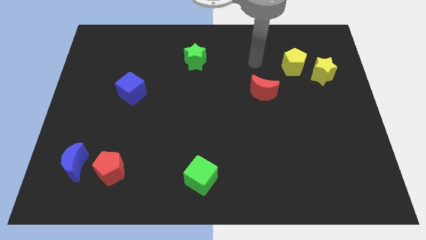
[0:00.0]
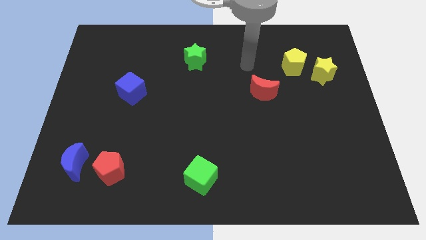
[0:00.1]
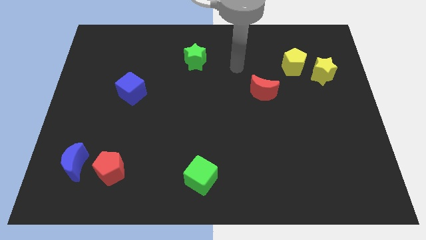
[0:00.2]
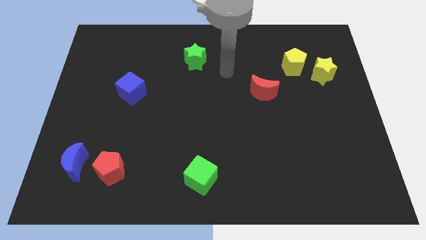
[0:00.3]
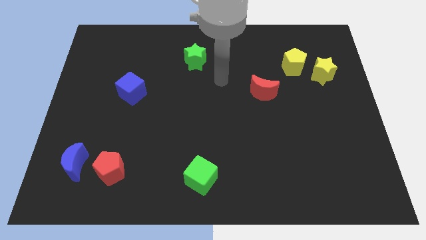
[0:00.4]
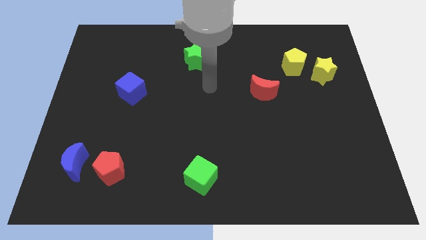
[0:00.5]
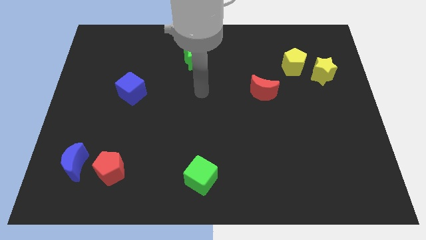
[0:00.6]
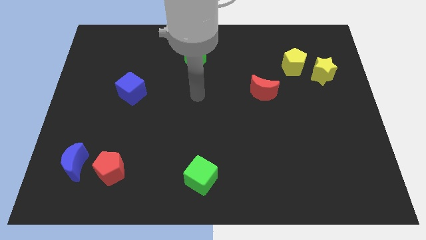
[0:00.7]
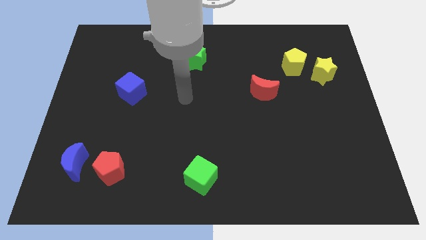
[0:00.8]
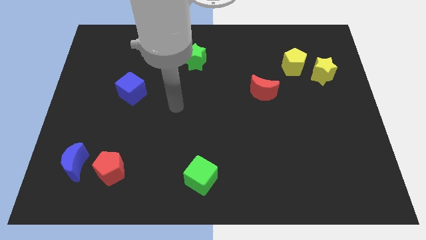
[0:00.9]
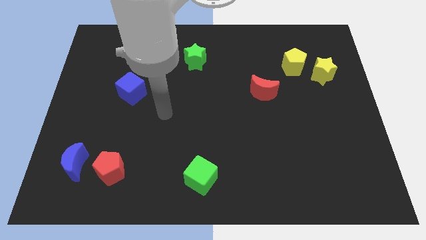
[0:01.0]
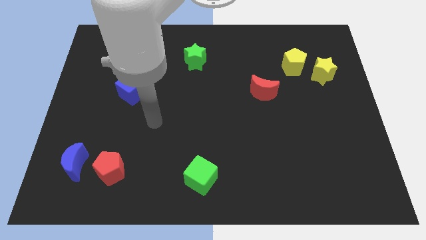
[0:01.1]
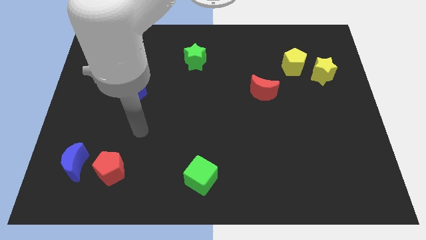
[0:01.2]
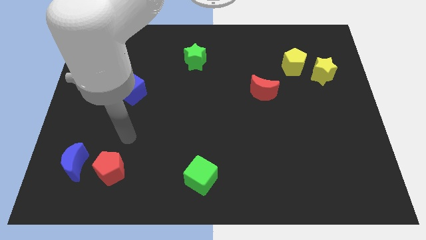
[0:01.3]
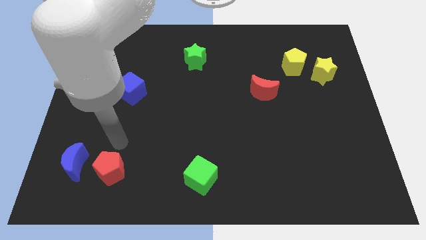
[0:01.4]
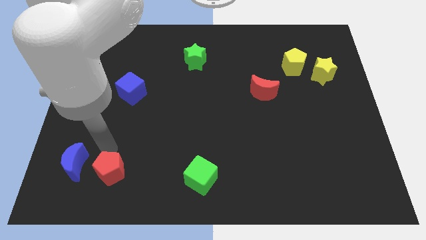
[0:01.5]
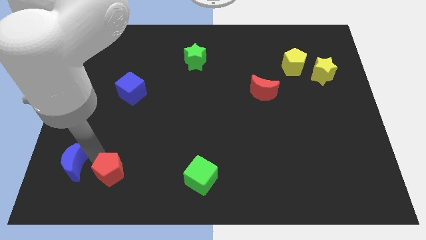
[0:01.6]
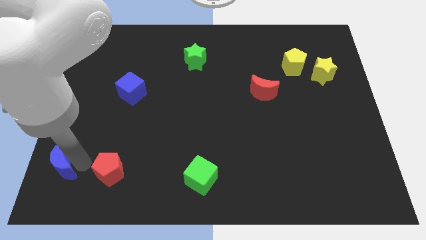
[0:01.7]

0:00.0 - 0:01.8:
separate the red pentagon from the blue moon

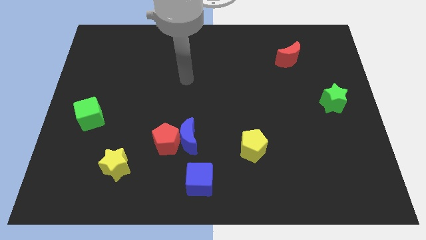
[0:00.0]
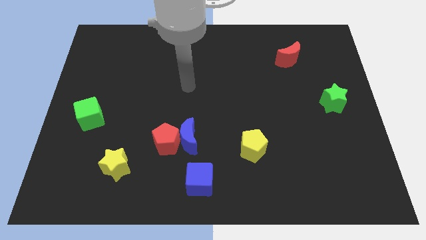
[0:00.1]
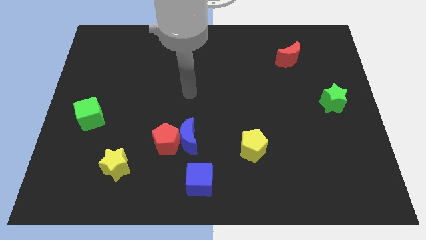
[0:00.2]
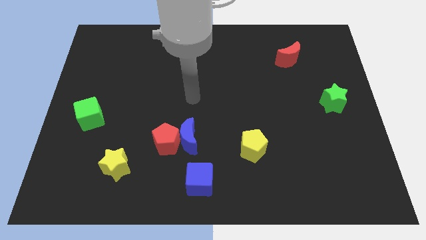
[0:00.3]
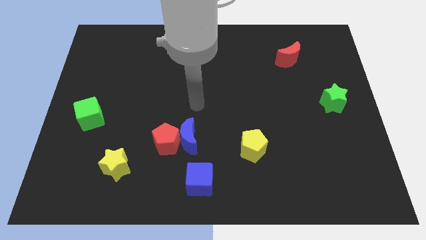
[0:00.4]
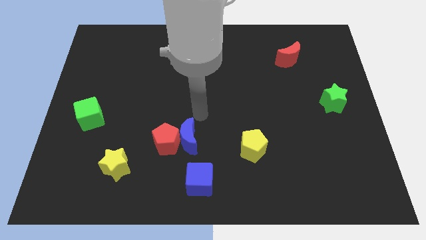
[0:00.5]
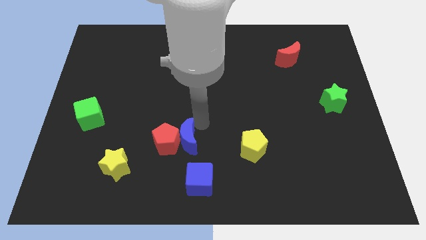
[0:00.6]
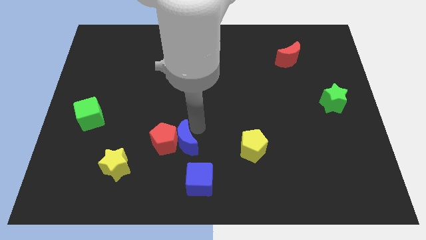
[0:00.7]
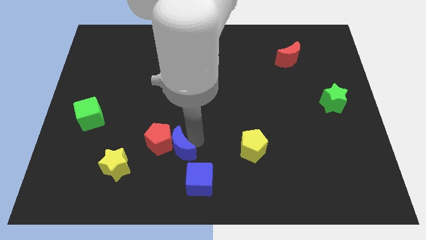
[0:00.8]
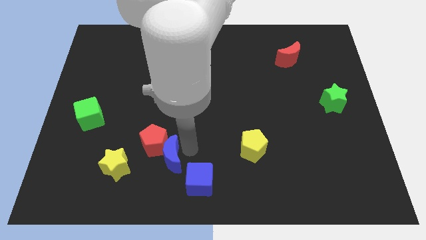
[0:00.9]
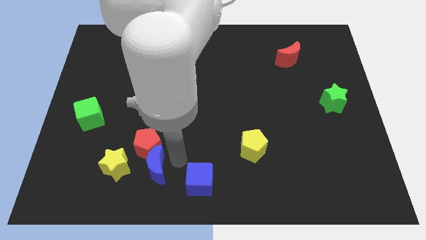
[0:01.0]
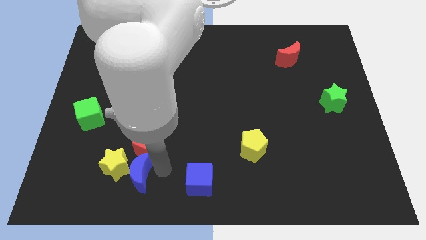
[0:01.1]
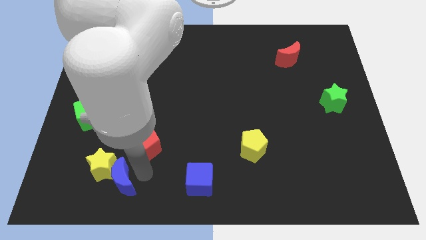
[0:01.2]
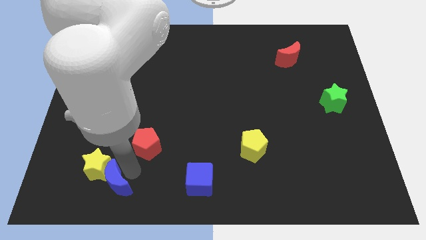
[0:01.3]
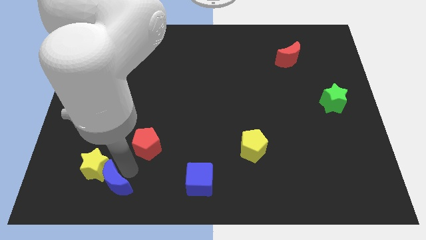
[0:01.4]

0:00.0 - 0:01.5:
pull the red pentagon apart from the blue moon

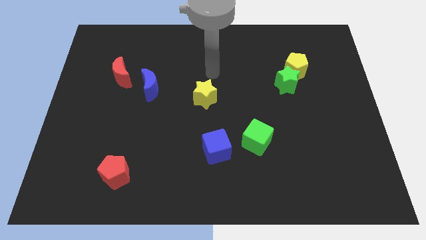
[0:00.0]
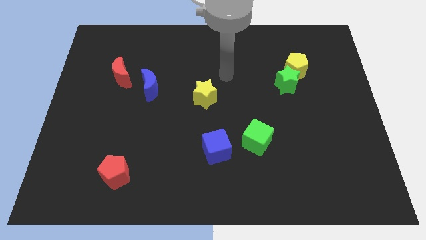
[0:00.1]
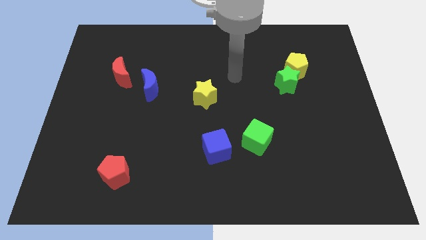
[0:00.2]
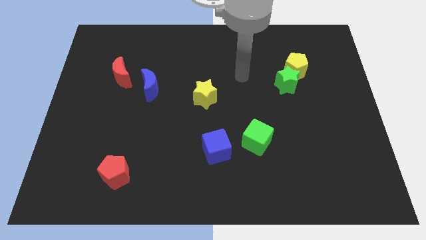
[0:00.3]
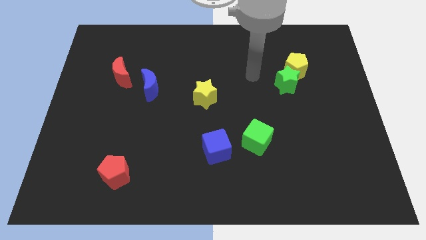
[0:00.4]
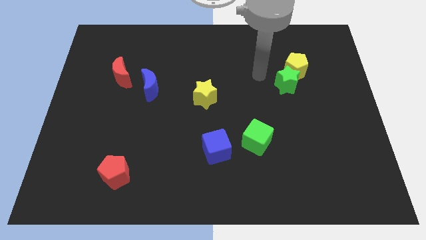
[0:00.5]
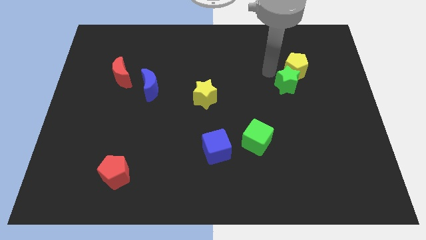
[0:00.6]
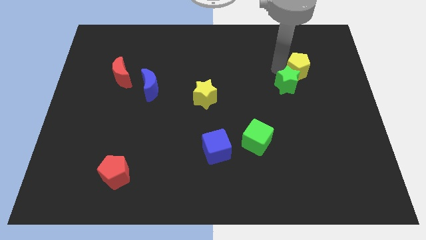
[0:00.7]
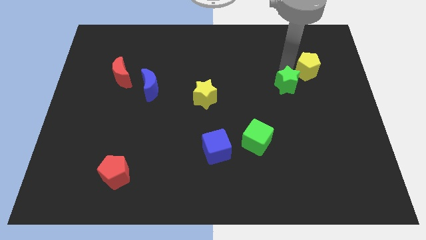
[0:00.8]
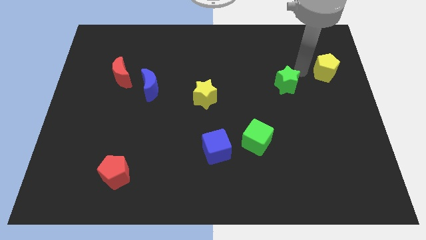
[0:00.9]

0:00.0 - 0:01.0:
move the green star away from the yellow pentagon

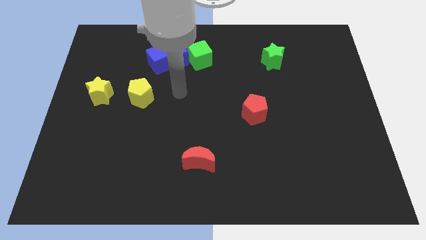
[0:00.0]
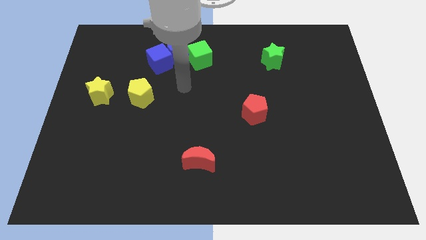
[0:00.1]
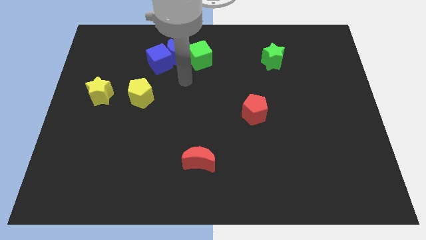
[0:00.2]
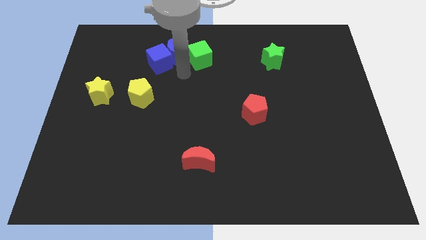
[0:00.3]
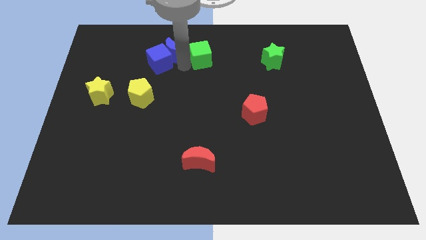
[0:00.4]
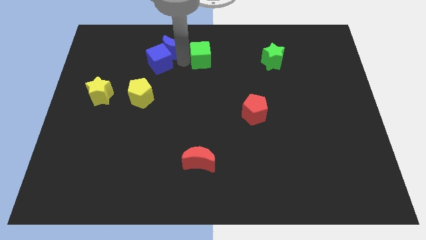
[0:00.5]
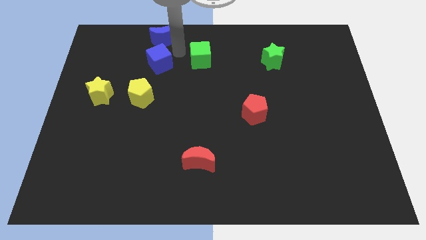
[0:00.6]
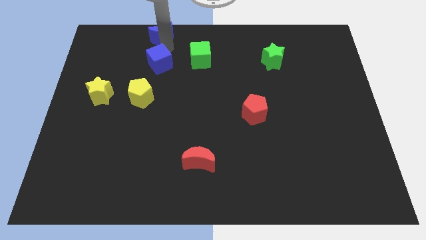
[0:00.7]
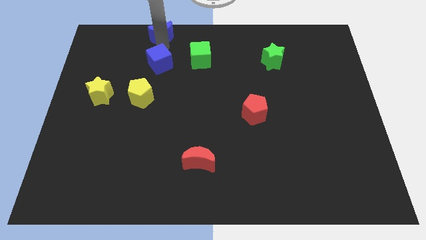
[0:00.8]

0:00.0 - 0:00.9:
separate the blue cube from the blue moon

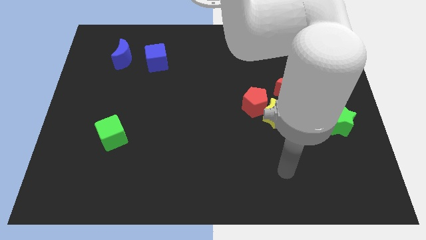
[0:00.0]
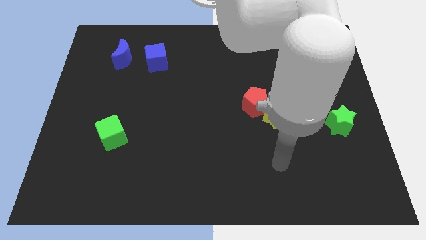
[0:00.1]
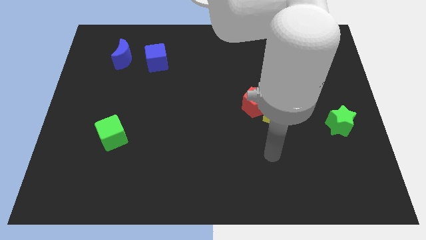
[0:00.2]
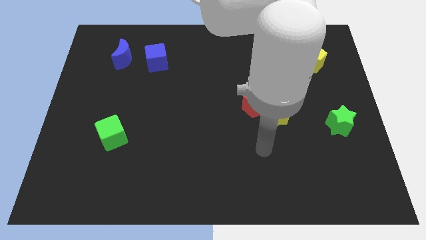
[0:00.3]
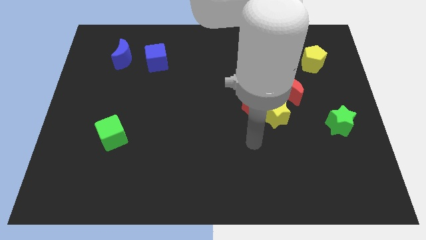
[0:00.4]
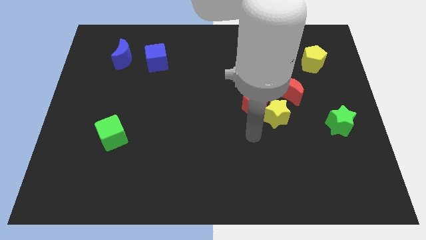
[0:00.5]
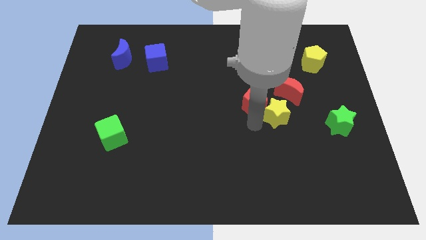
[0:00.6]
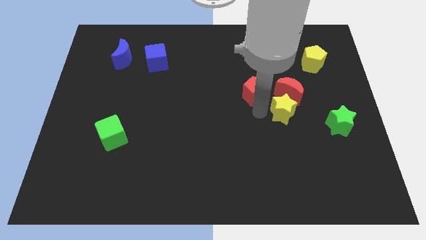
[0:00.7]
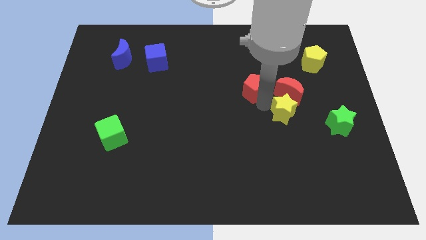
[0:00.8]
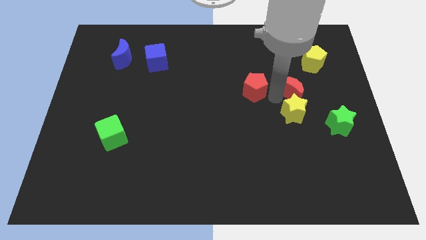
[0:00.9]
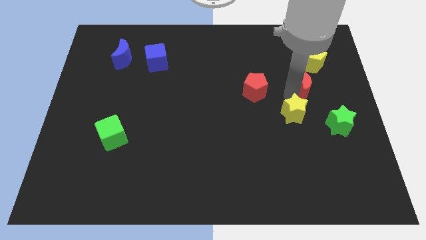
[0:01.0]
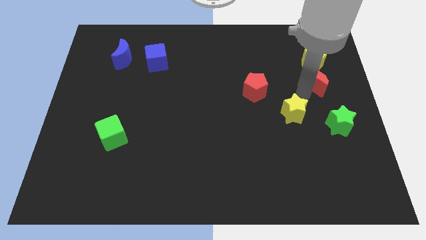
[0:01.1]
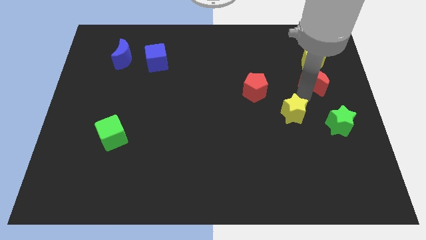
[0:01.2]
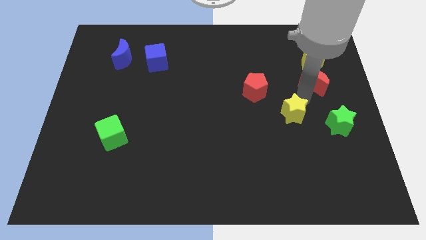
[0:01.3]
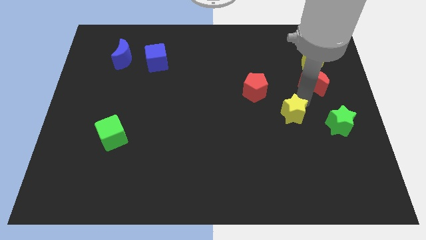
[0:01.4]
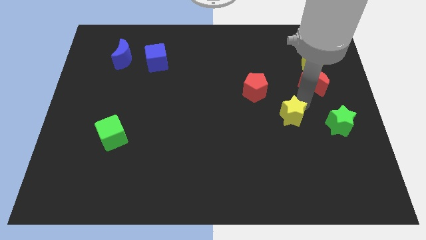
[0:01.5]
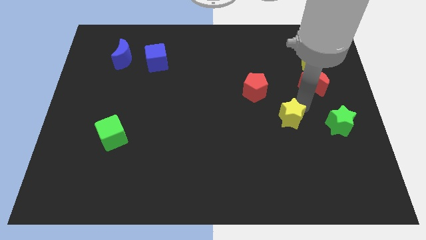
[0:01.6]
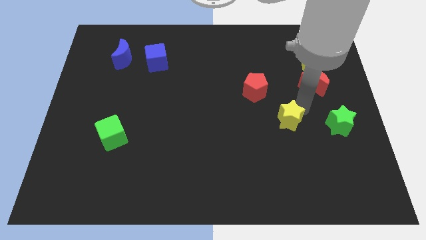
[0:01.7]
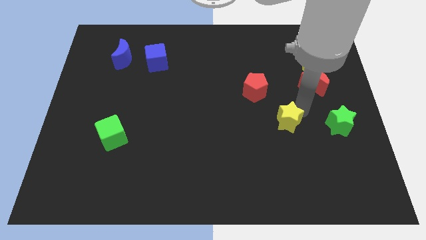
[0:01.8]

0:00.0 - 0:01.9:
separate the yellow star from the red pentagon and red moon

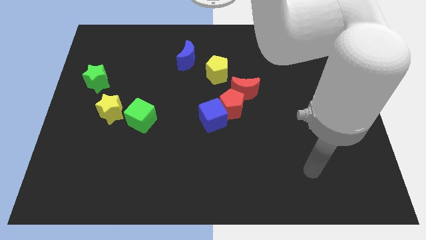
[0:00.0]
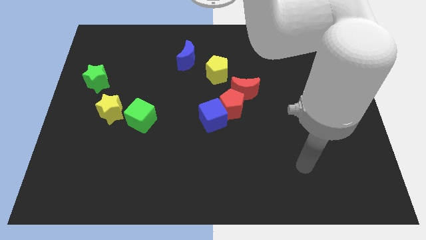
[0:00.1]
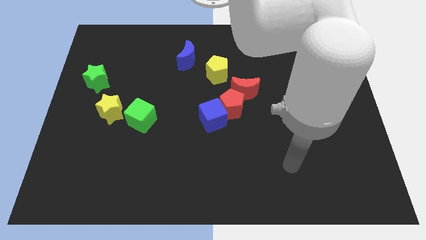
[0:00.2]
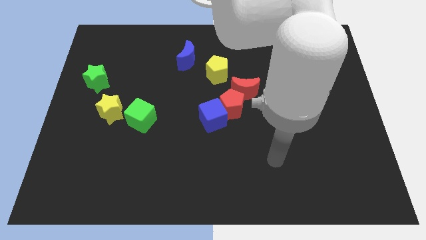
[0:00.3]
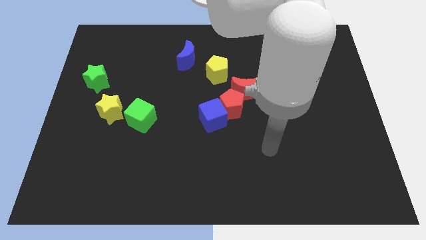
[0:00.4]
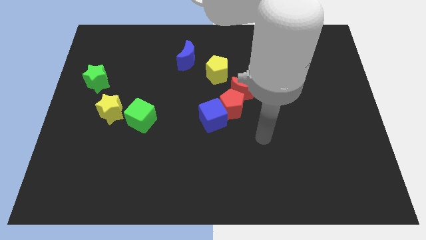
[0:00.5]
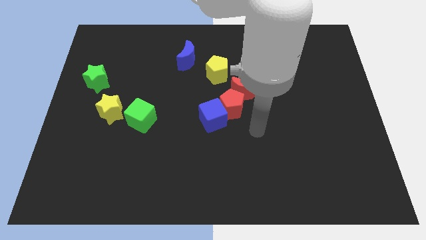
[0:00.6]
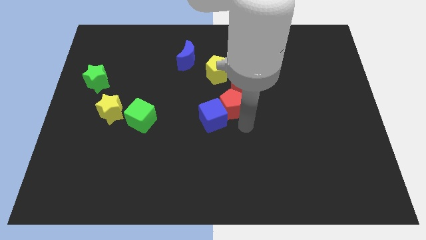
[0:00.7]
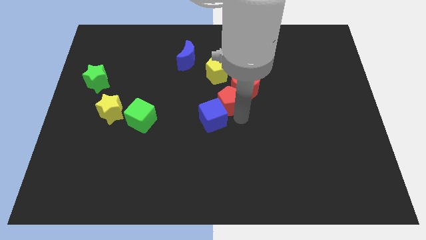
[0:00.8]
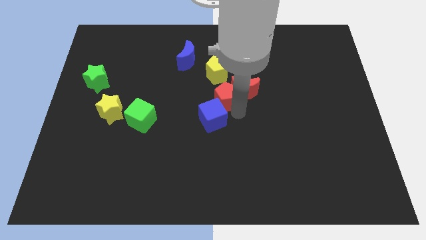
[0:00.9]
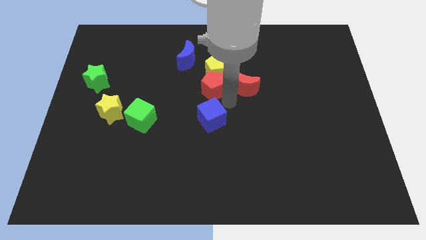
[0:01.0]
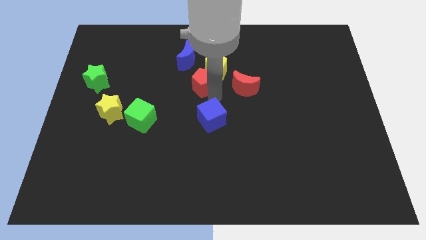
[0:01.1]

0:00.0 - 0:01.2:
pull the blue cube apart from the red pentagon

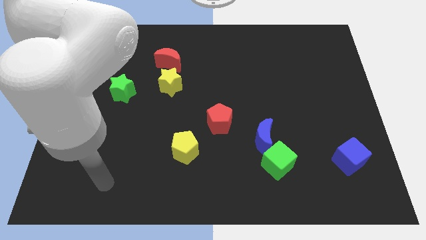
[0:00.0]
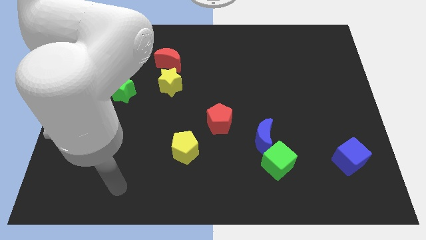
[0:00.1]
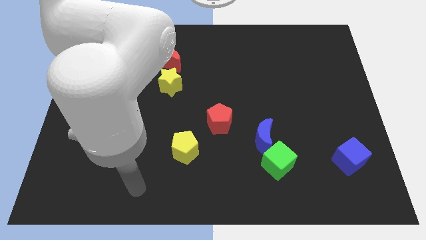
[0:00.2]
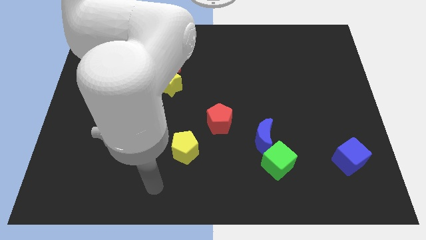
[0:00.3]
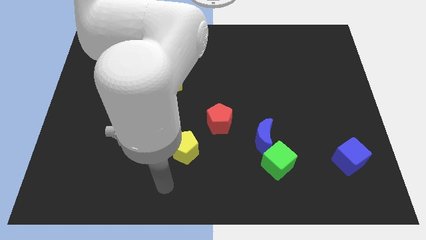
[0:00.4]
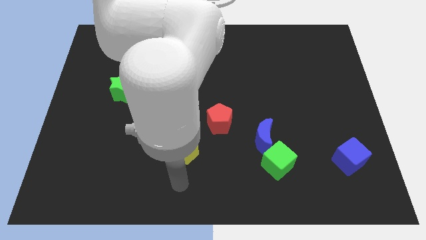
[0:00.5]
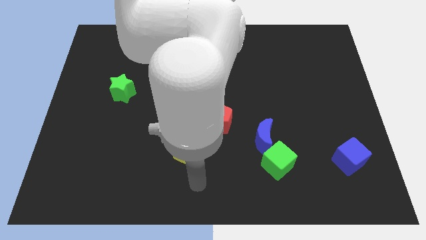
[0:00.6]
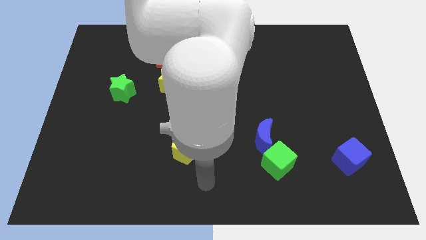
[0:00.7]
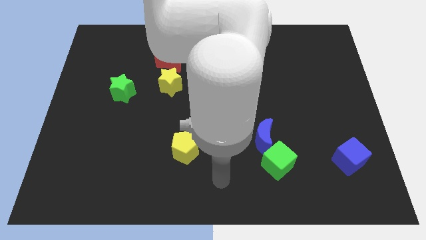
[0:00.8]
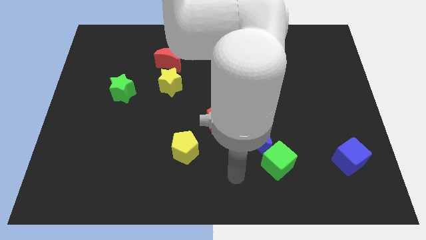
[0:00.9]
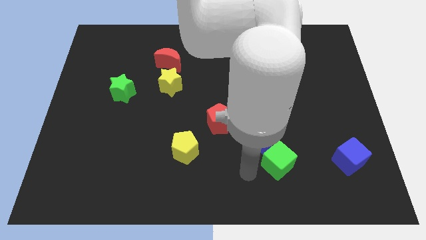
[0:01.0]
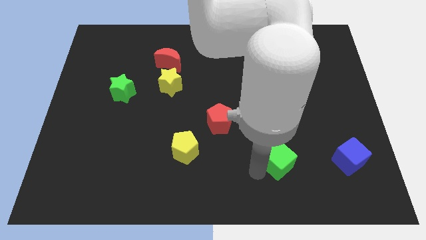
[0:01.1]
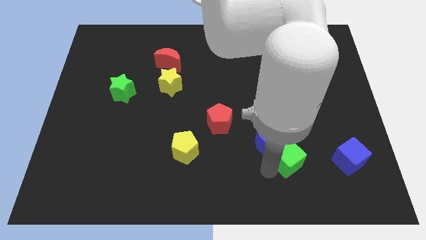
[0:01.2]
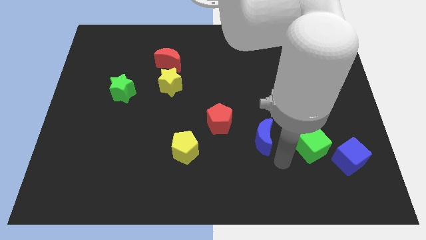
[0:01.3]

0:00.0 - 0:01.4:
pull the blue moon apart from the green cube
